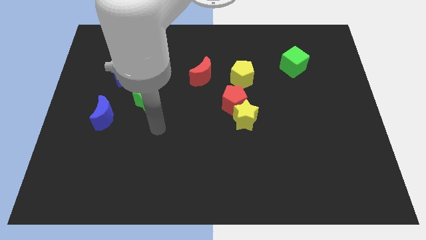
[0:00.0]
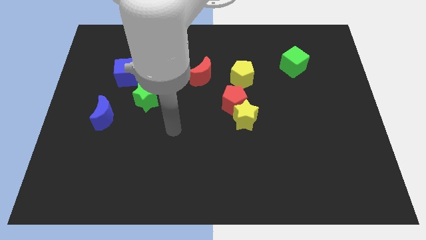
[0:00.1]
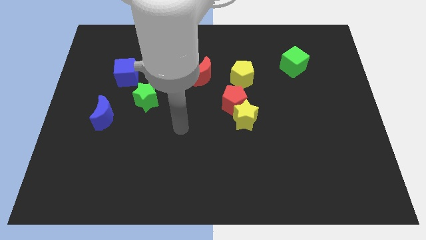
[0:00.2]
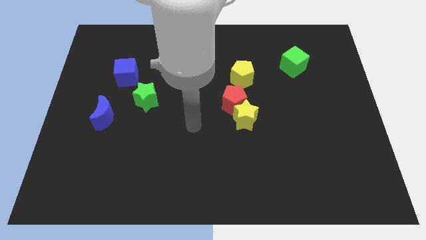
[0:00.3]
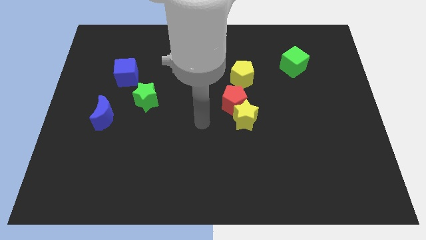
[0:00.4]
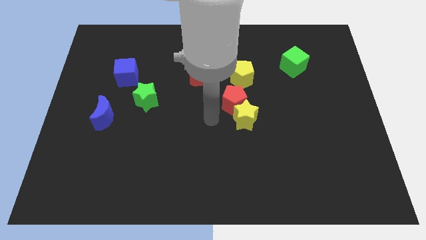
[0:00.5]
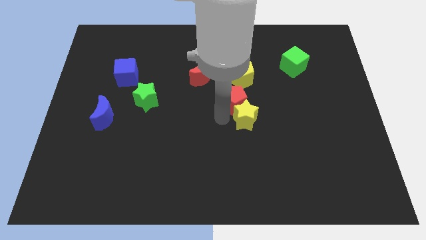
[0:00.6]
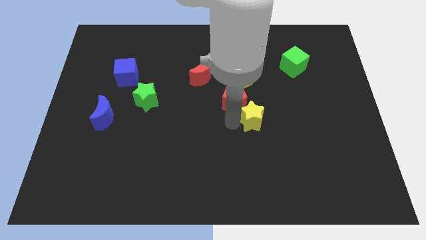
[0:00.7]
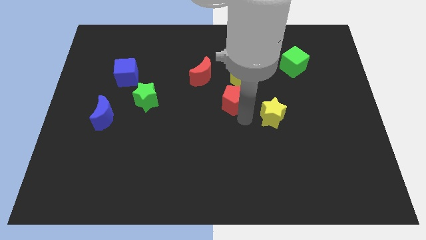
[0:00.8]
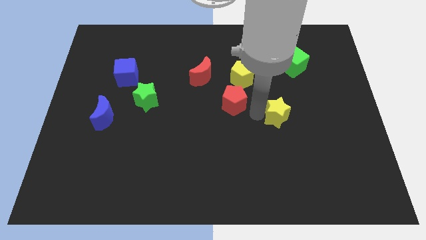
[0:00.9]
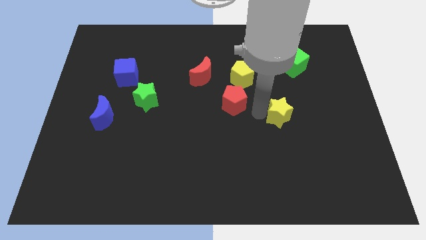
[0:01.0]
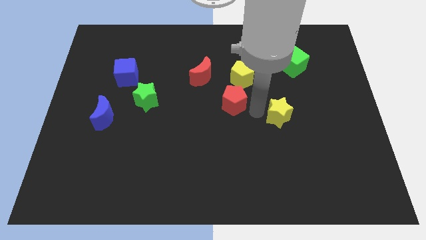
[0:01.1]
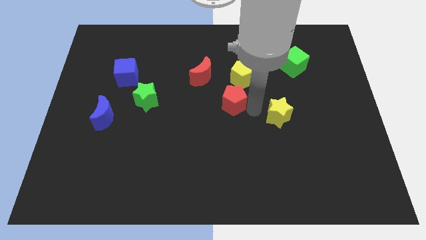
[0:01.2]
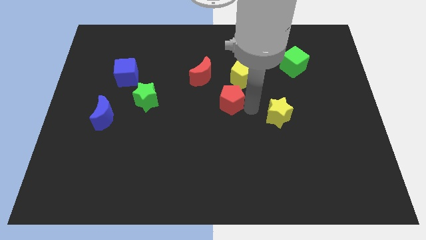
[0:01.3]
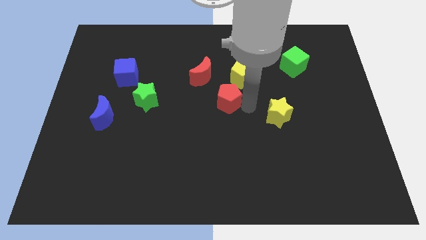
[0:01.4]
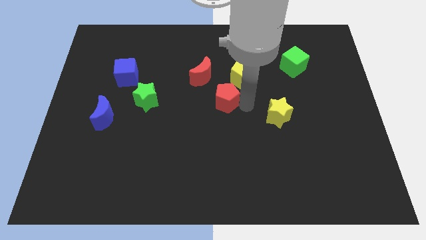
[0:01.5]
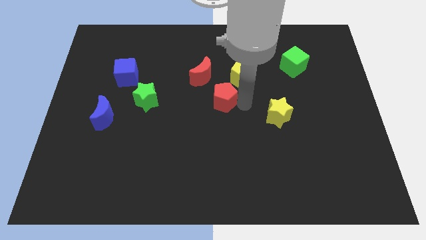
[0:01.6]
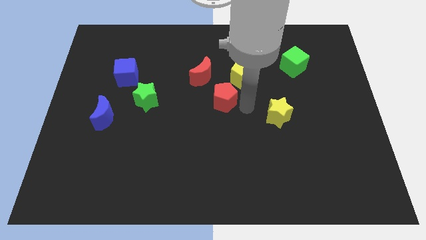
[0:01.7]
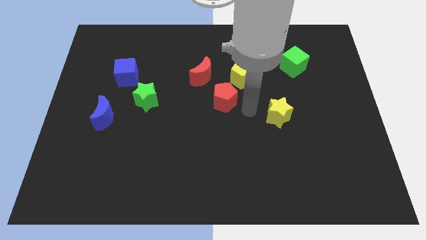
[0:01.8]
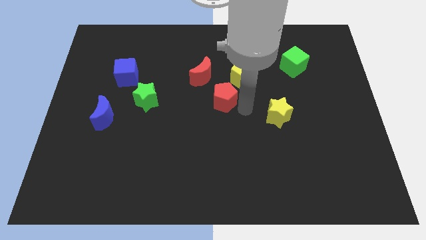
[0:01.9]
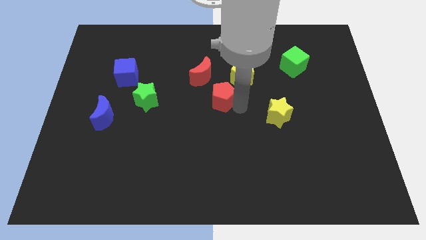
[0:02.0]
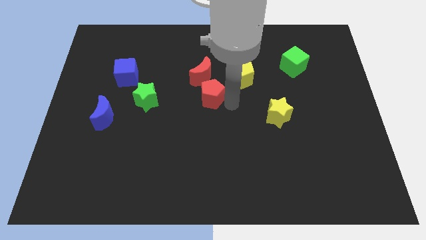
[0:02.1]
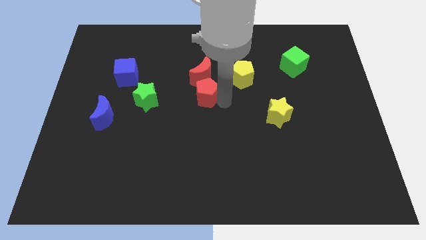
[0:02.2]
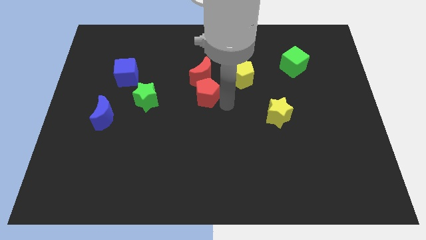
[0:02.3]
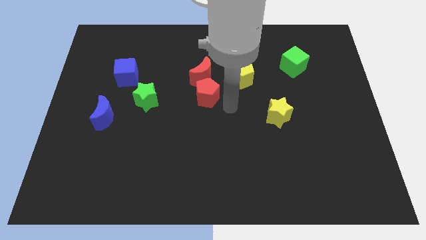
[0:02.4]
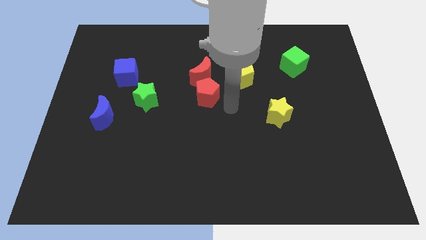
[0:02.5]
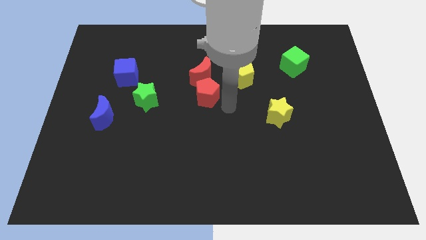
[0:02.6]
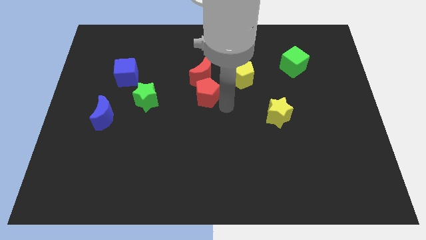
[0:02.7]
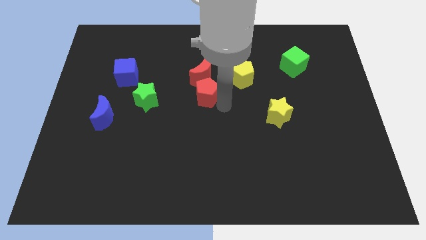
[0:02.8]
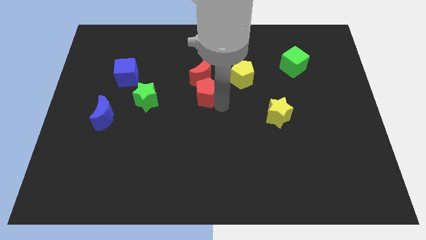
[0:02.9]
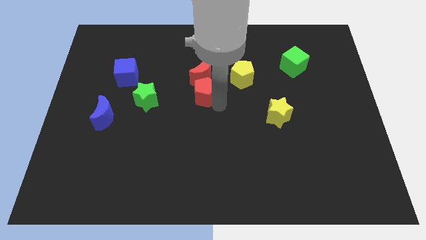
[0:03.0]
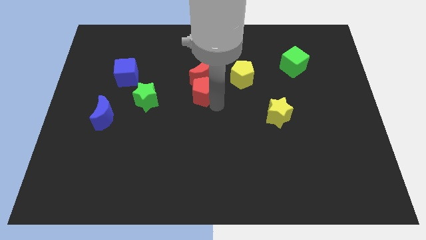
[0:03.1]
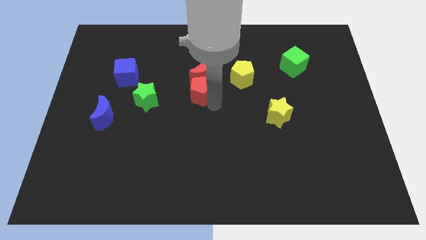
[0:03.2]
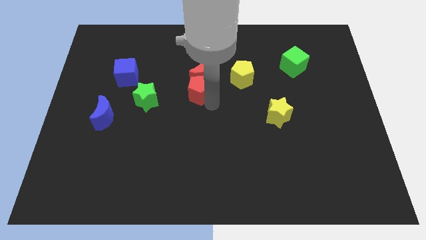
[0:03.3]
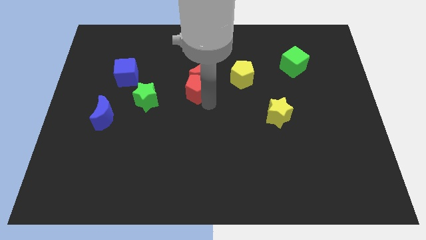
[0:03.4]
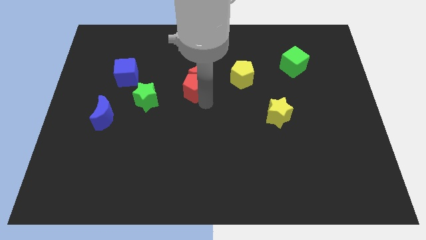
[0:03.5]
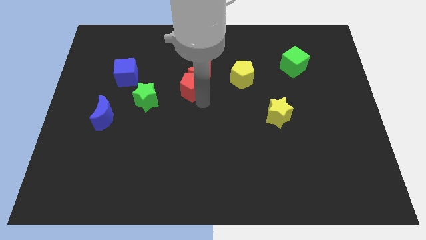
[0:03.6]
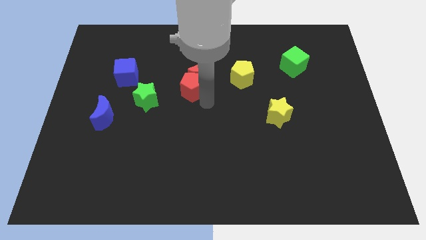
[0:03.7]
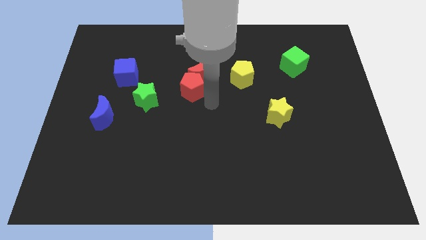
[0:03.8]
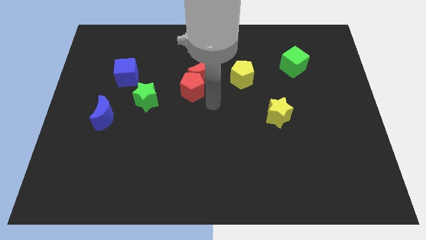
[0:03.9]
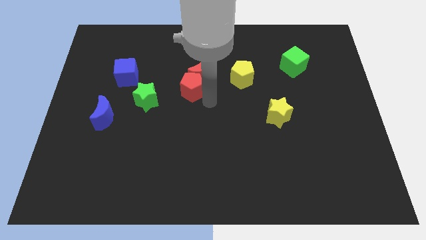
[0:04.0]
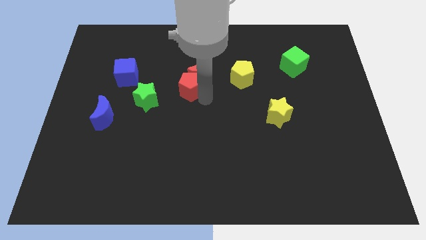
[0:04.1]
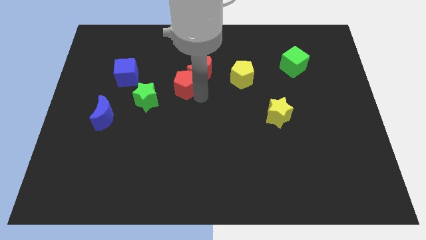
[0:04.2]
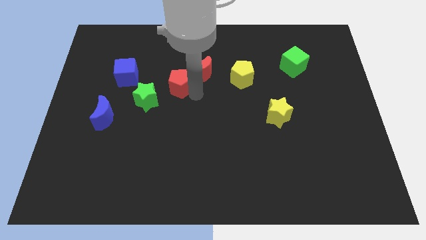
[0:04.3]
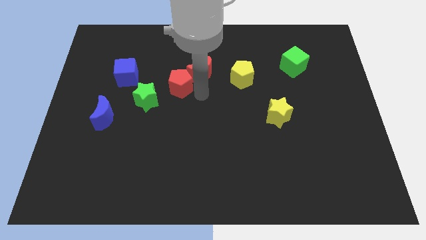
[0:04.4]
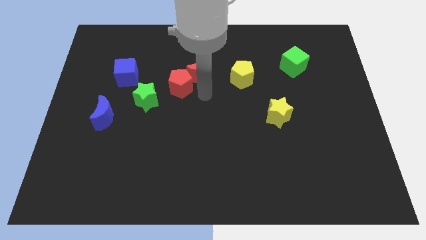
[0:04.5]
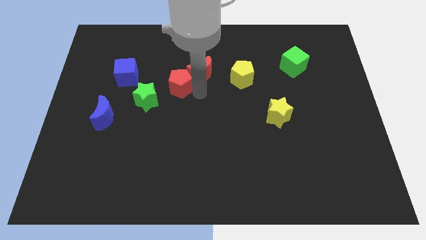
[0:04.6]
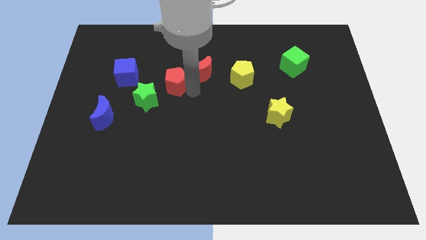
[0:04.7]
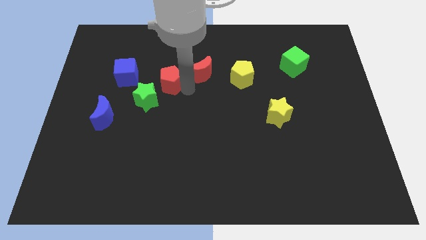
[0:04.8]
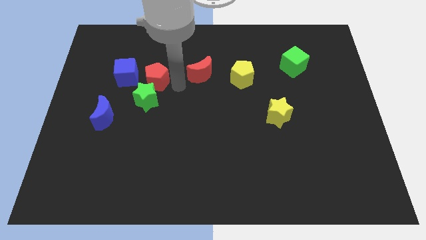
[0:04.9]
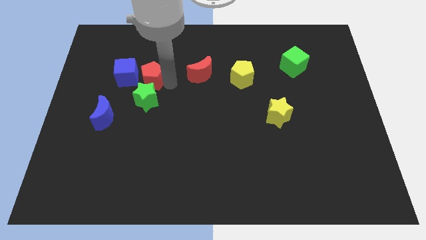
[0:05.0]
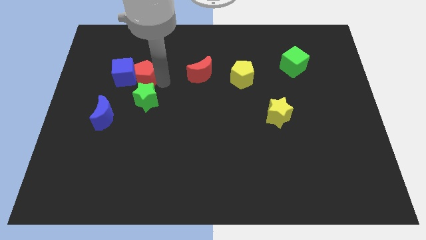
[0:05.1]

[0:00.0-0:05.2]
put the red pentagon towards the blue cube

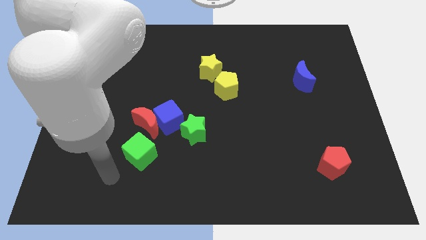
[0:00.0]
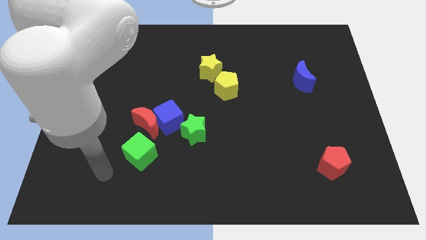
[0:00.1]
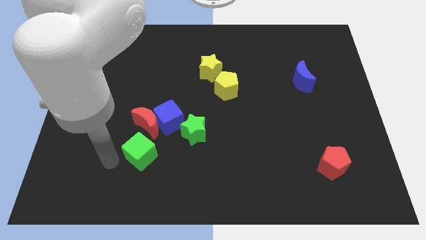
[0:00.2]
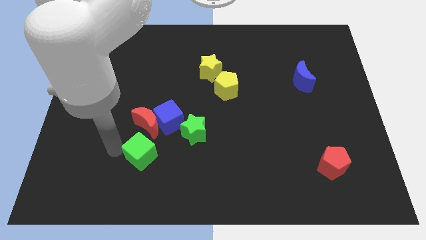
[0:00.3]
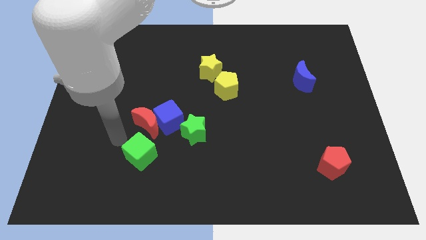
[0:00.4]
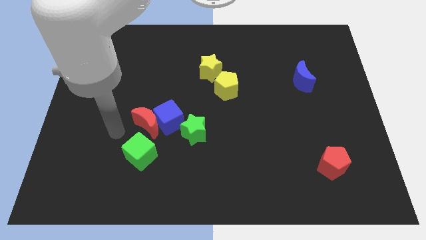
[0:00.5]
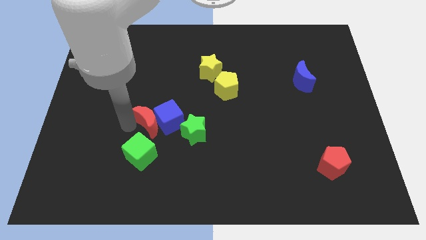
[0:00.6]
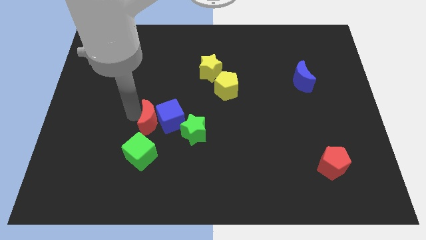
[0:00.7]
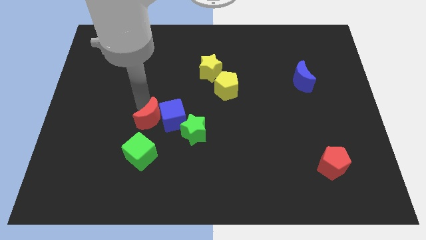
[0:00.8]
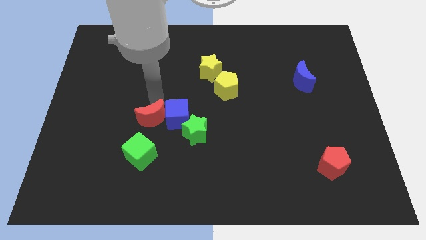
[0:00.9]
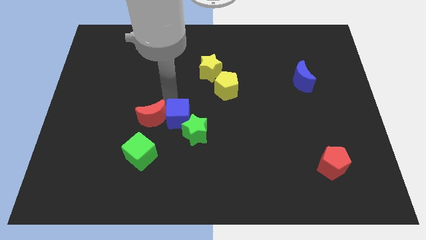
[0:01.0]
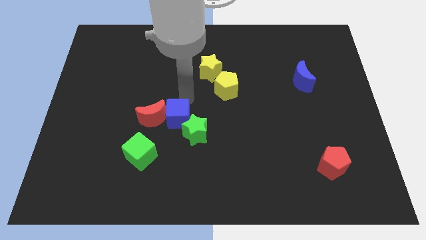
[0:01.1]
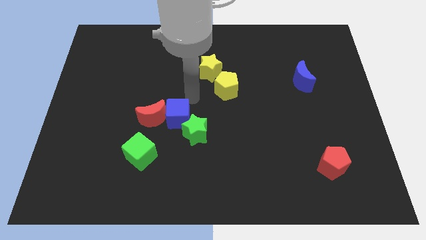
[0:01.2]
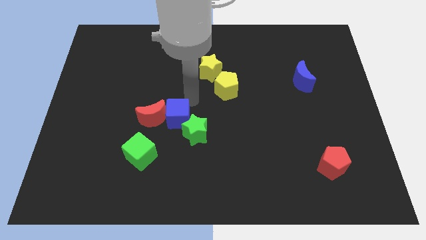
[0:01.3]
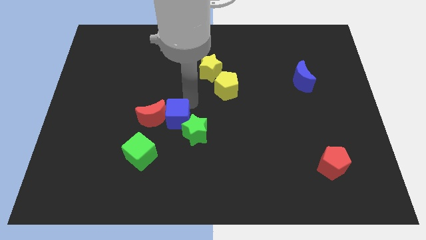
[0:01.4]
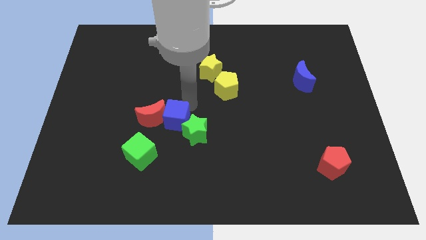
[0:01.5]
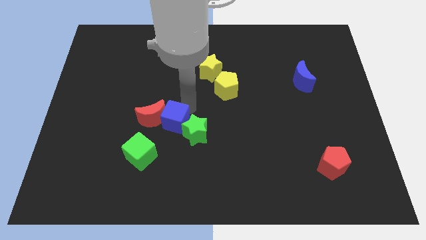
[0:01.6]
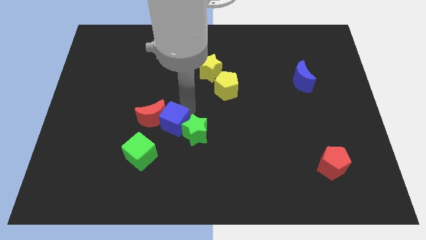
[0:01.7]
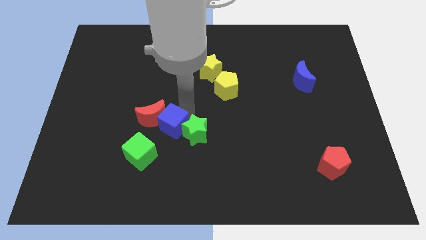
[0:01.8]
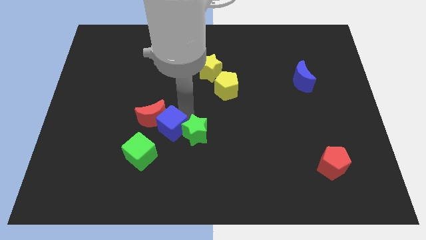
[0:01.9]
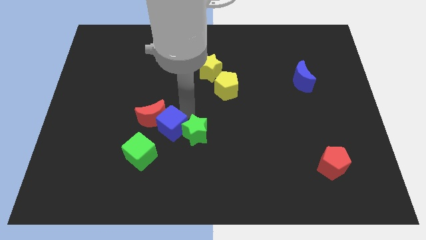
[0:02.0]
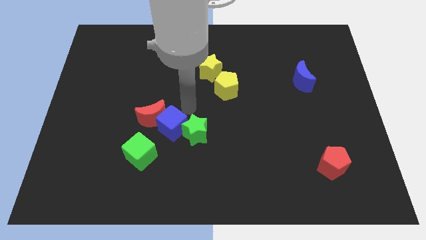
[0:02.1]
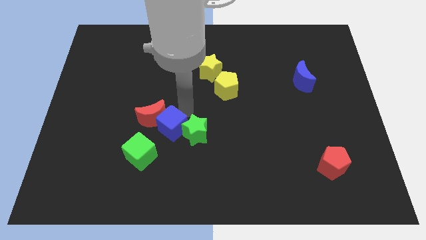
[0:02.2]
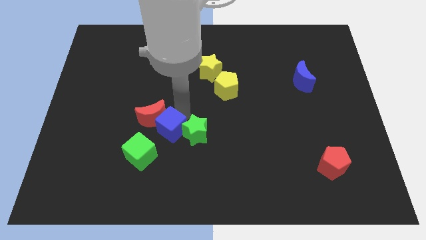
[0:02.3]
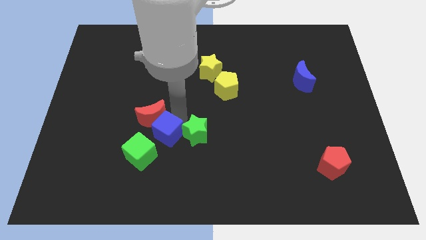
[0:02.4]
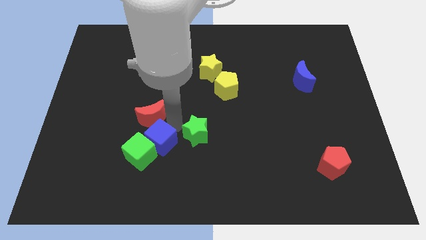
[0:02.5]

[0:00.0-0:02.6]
push the blue cube next to the green cube
